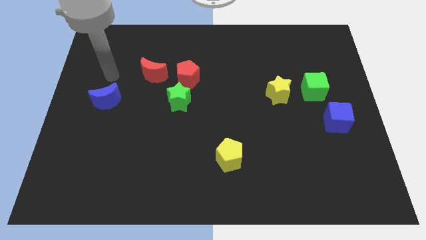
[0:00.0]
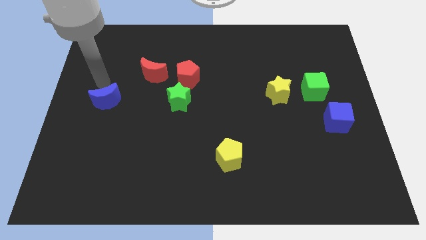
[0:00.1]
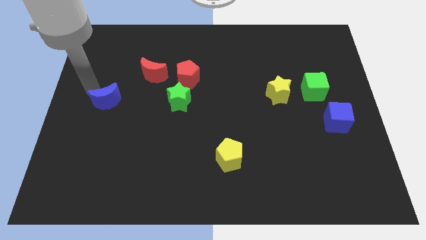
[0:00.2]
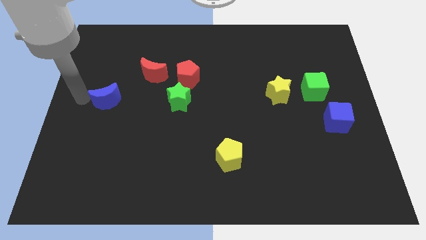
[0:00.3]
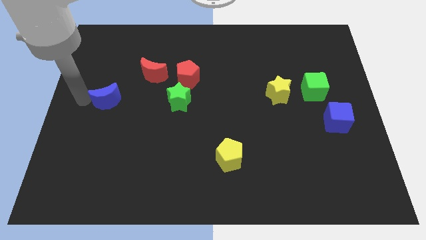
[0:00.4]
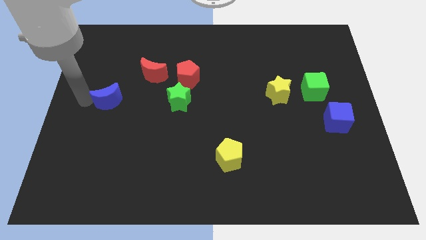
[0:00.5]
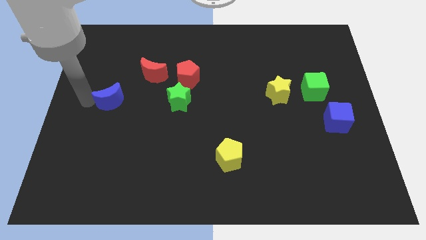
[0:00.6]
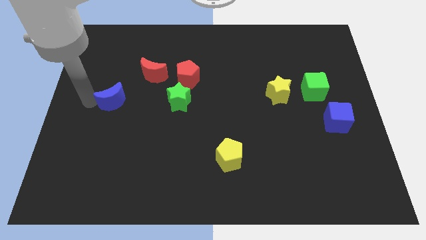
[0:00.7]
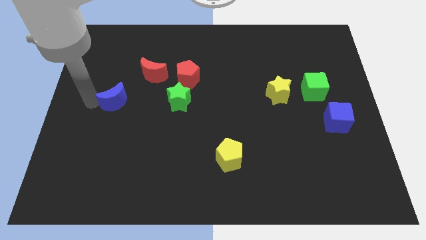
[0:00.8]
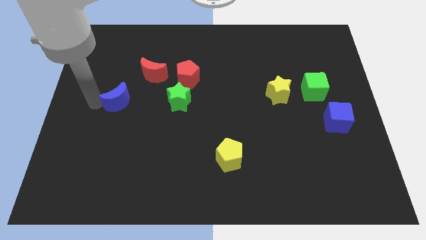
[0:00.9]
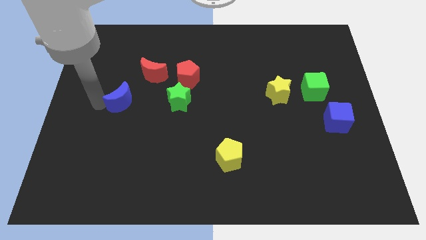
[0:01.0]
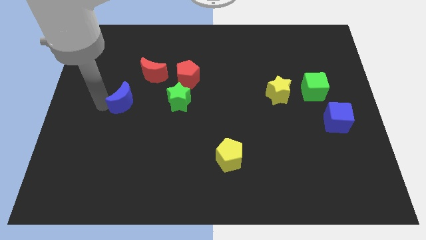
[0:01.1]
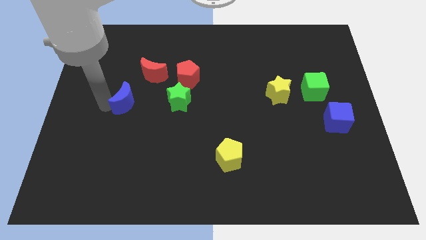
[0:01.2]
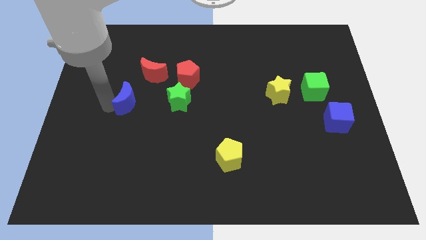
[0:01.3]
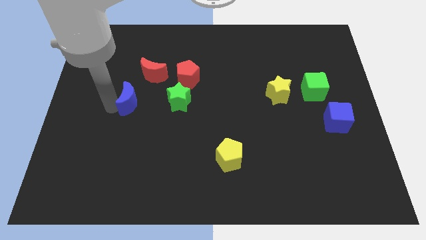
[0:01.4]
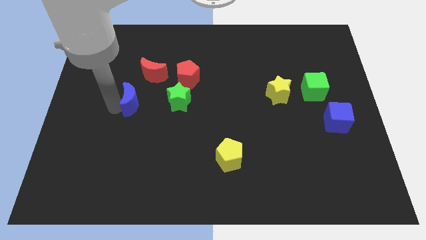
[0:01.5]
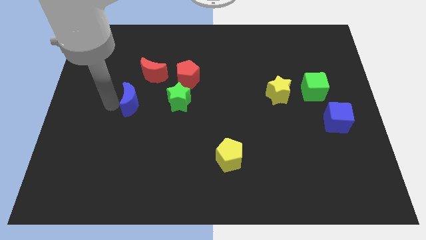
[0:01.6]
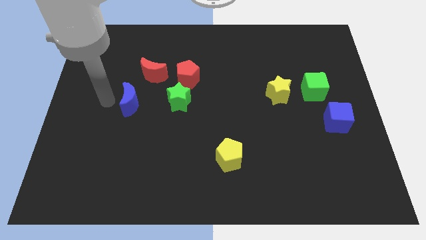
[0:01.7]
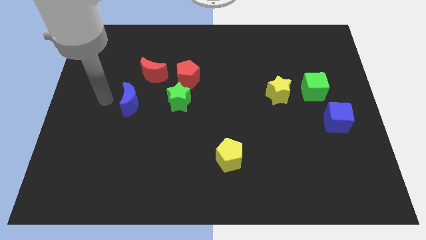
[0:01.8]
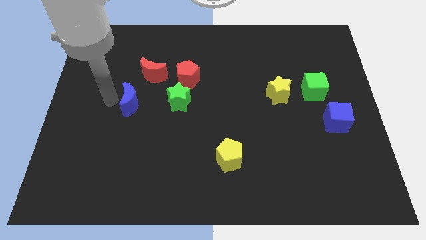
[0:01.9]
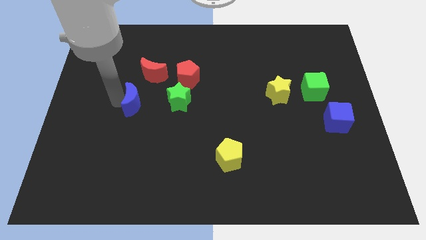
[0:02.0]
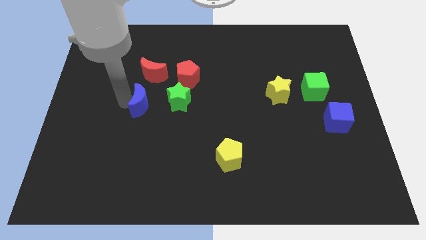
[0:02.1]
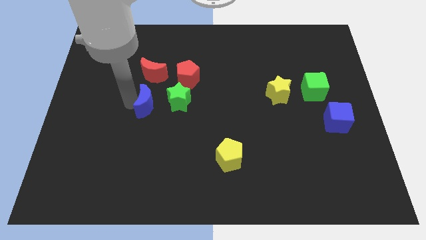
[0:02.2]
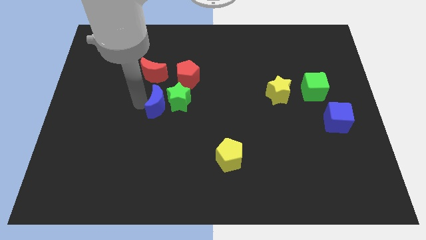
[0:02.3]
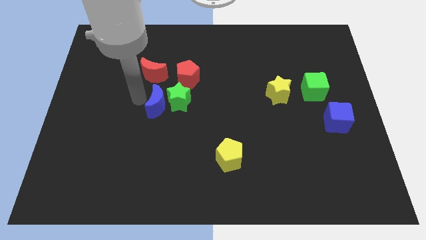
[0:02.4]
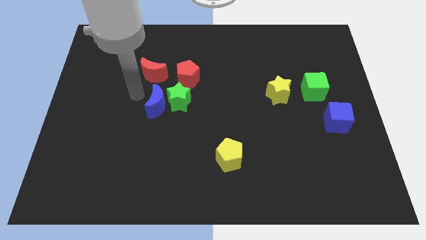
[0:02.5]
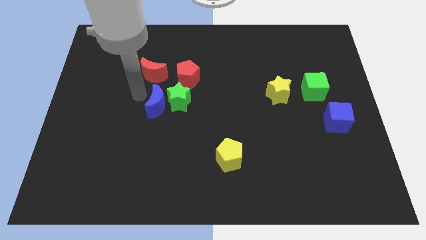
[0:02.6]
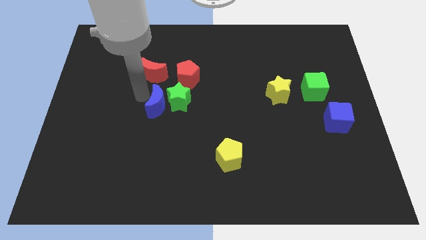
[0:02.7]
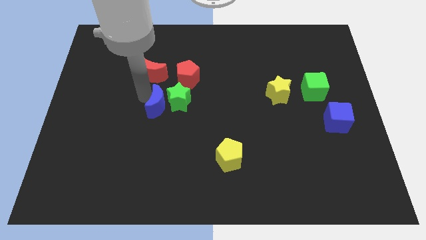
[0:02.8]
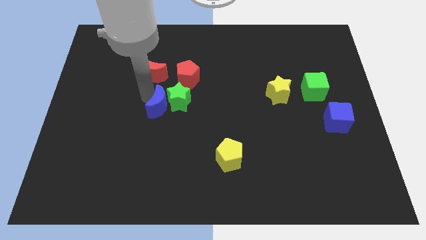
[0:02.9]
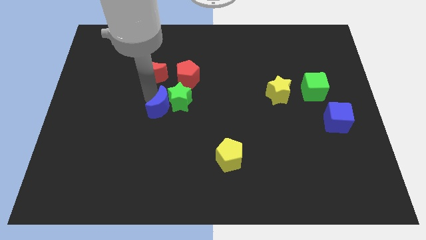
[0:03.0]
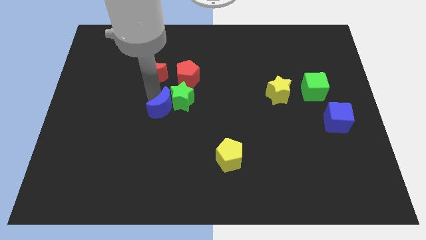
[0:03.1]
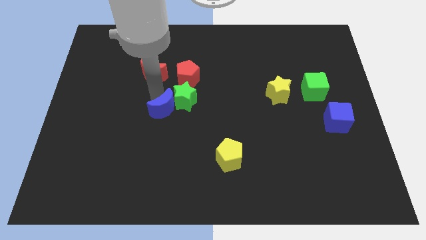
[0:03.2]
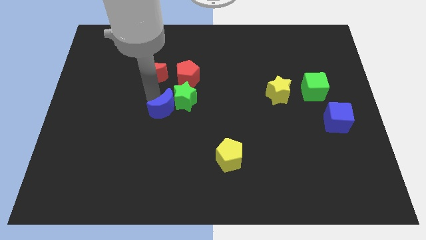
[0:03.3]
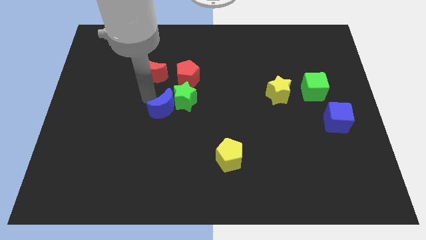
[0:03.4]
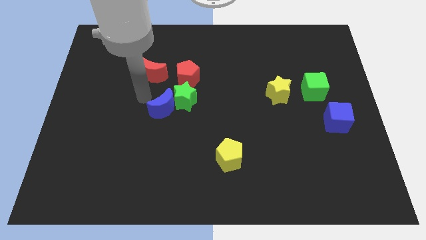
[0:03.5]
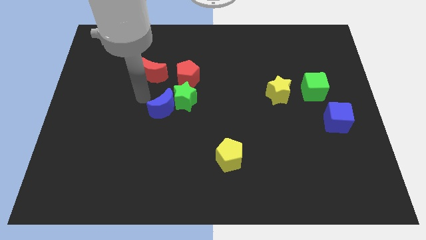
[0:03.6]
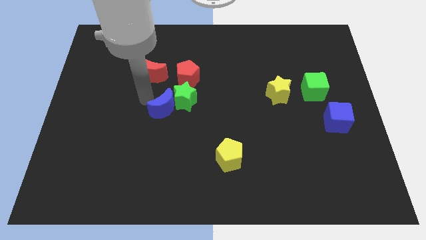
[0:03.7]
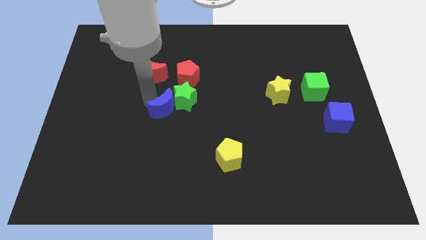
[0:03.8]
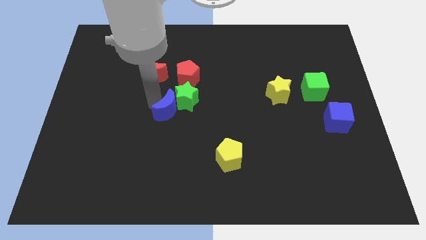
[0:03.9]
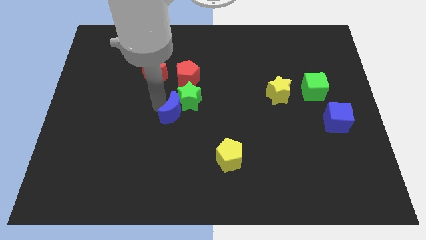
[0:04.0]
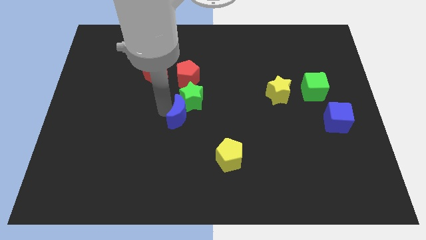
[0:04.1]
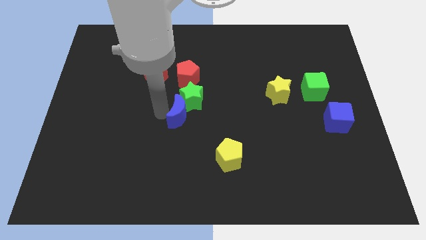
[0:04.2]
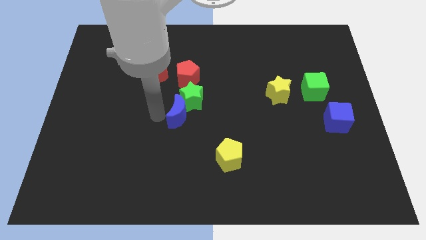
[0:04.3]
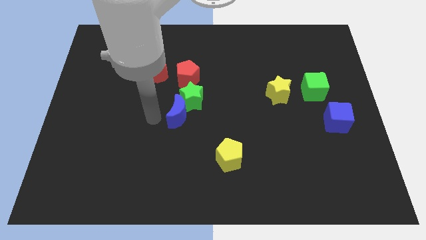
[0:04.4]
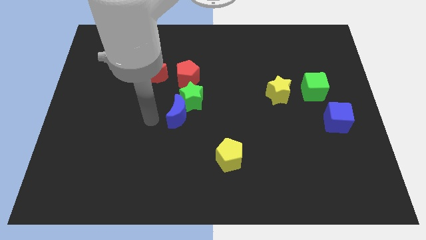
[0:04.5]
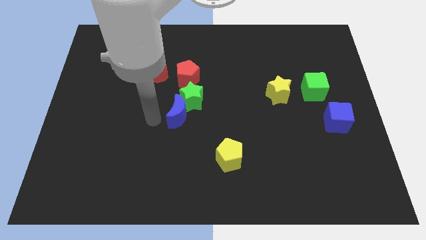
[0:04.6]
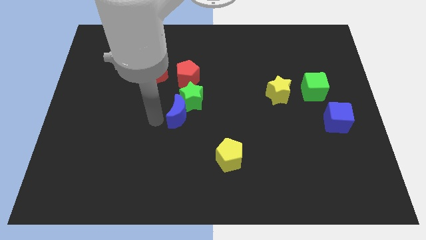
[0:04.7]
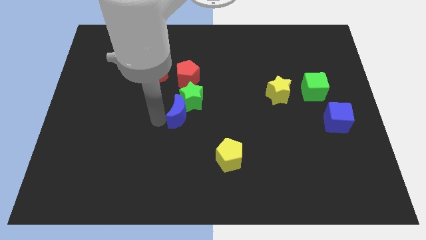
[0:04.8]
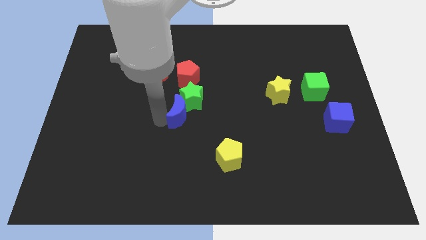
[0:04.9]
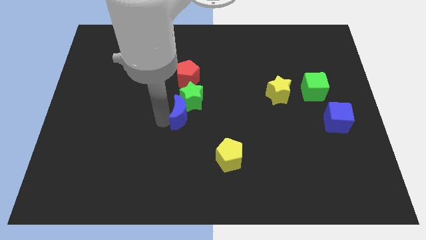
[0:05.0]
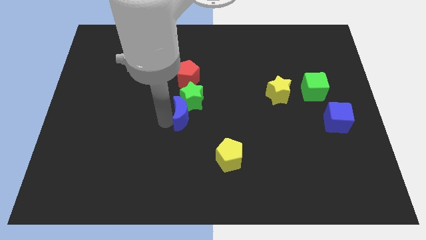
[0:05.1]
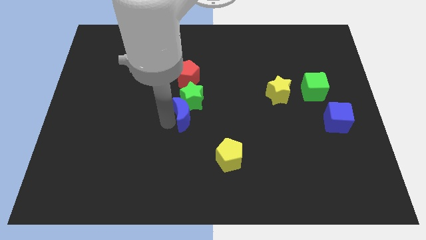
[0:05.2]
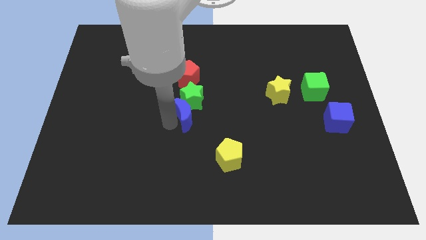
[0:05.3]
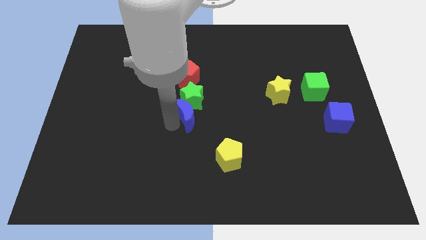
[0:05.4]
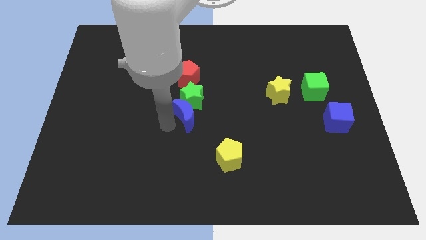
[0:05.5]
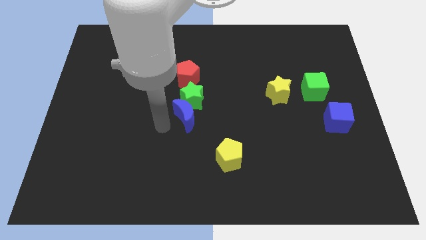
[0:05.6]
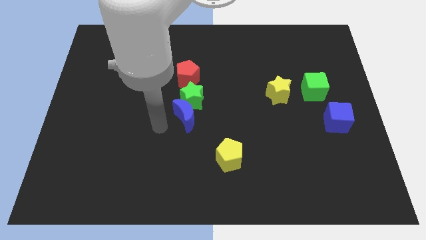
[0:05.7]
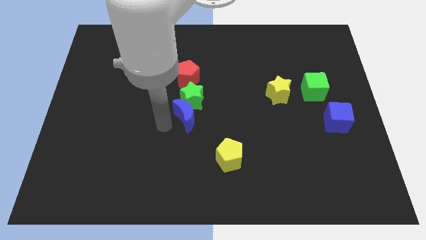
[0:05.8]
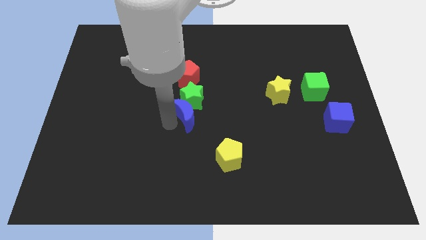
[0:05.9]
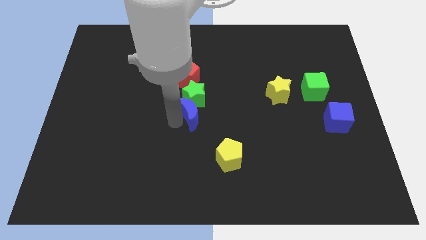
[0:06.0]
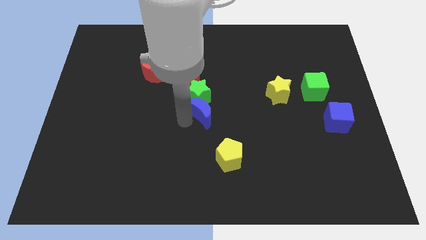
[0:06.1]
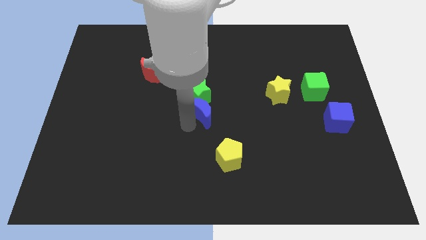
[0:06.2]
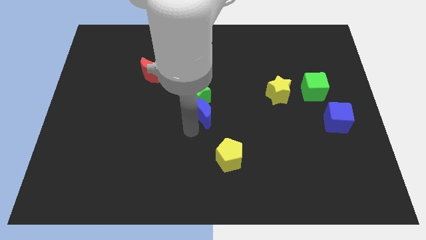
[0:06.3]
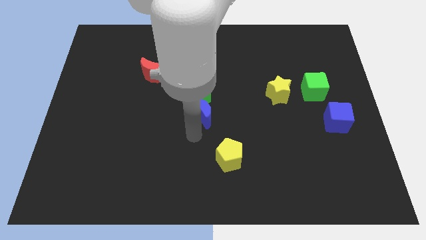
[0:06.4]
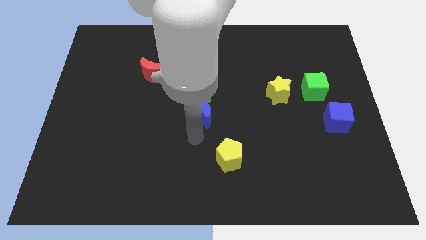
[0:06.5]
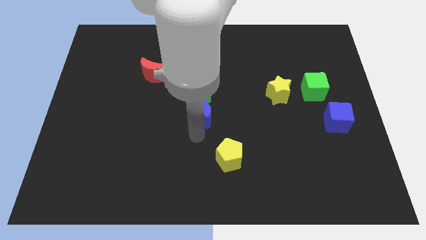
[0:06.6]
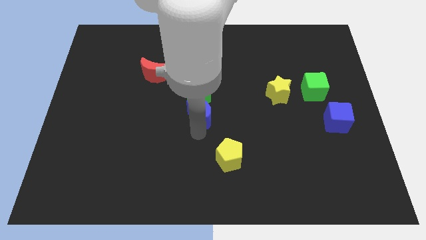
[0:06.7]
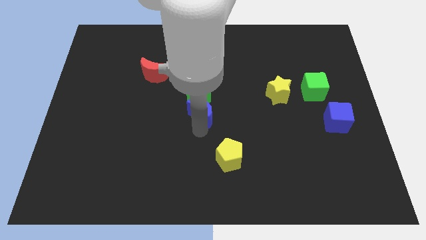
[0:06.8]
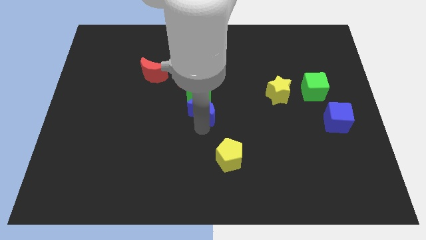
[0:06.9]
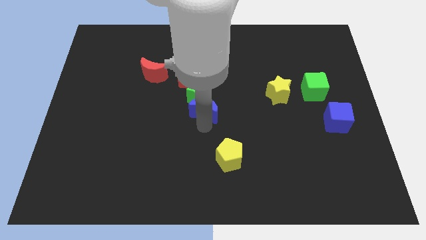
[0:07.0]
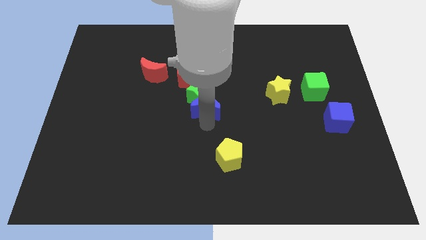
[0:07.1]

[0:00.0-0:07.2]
push the blue moon to the bottom right of the red pentagon

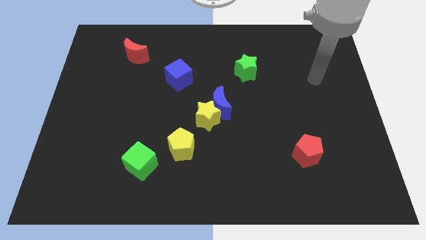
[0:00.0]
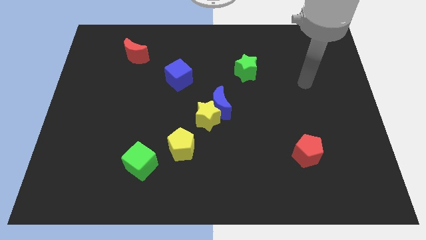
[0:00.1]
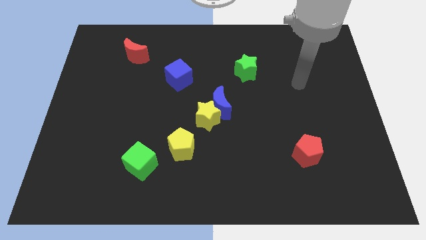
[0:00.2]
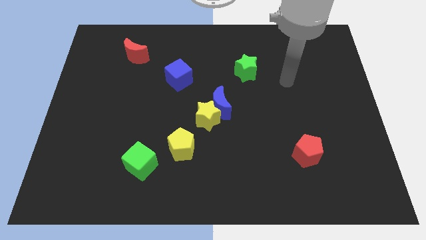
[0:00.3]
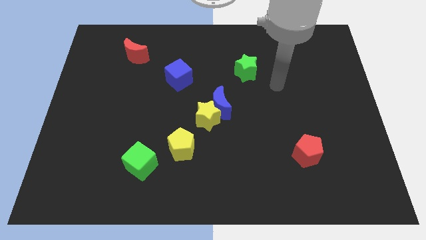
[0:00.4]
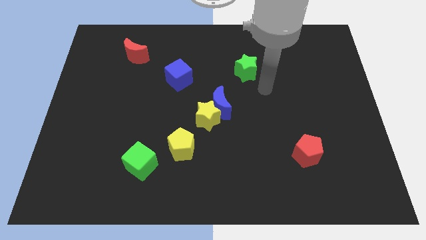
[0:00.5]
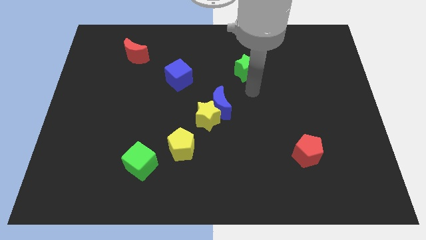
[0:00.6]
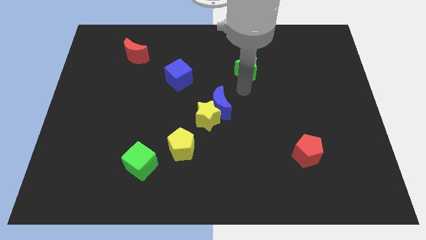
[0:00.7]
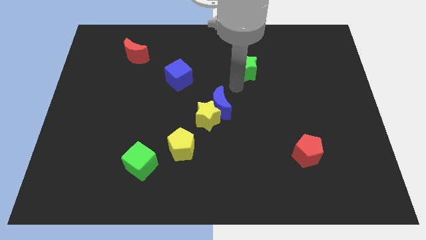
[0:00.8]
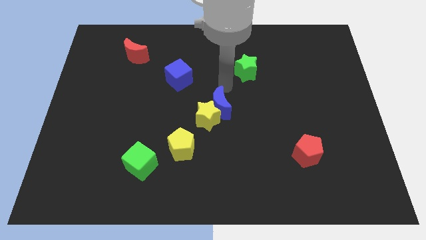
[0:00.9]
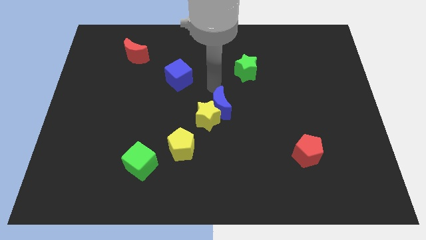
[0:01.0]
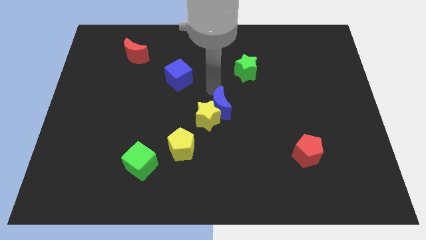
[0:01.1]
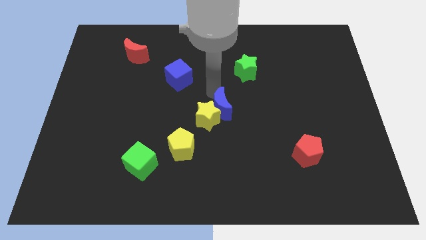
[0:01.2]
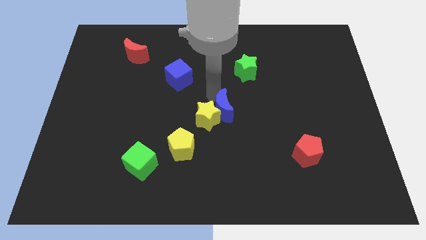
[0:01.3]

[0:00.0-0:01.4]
slide the blue moon to the bottom right of the yellow star
